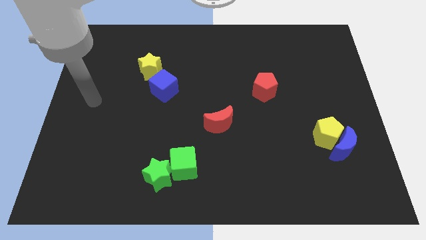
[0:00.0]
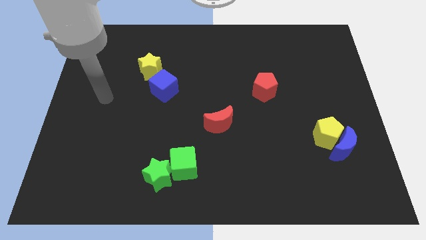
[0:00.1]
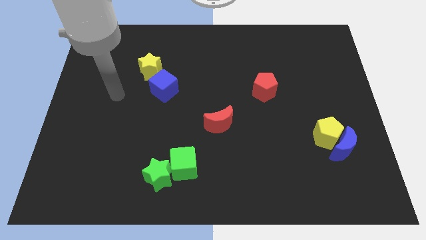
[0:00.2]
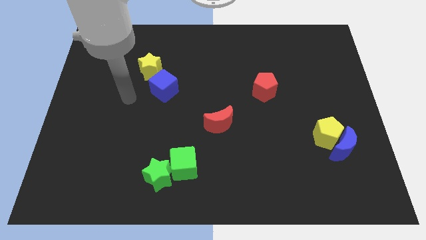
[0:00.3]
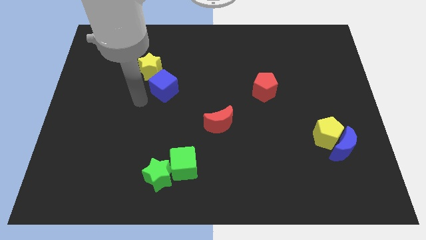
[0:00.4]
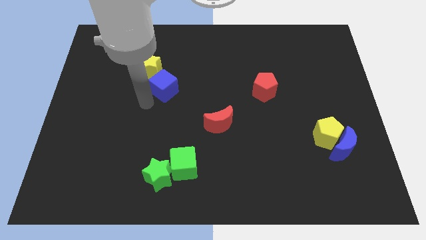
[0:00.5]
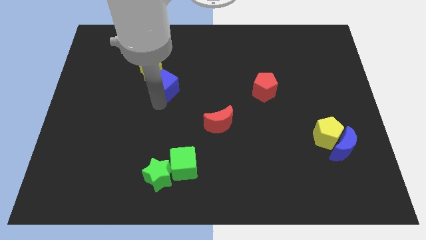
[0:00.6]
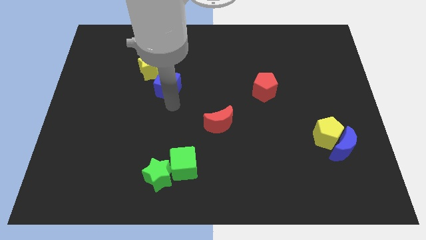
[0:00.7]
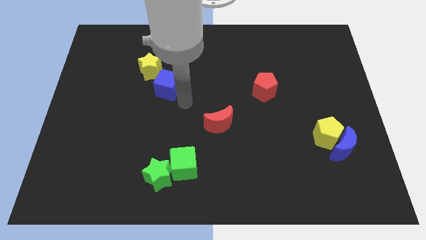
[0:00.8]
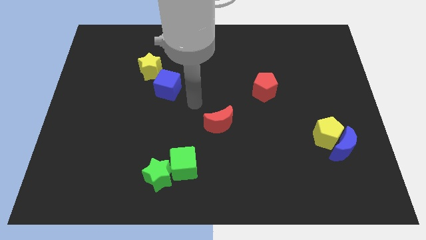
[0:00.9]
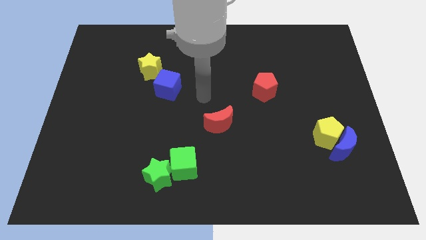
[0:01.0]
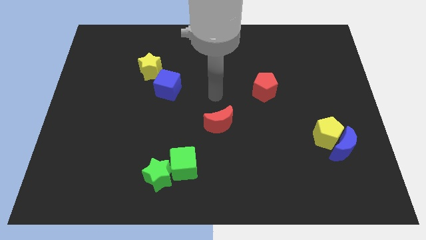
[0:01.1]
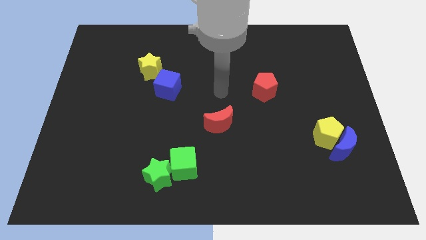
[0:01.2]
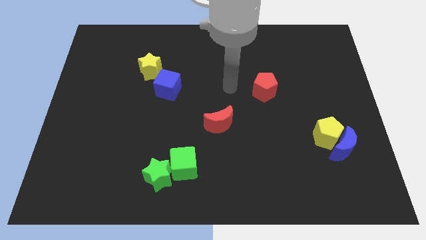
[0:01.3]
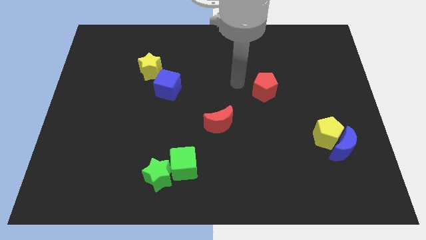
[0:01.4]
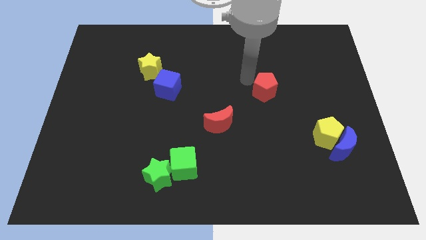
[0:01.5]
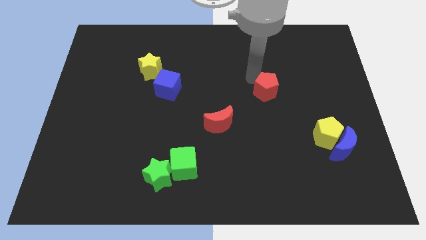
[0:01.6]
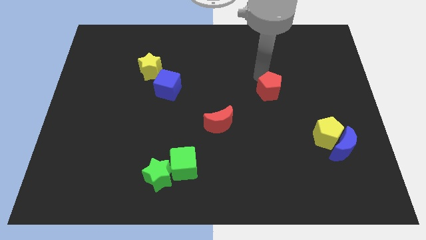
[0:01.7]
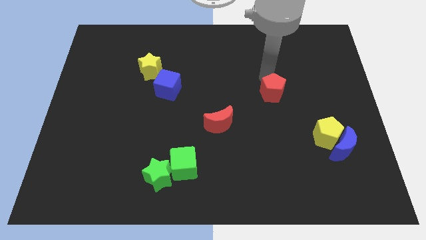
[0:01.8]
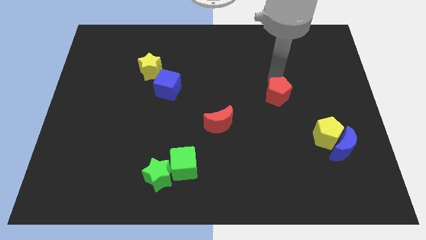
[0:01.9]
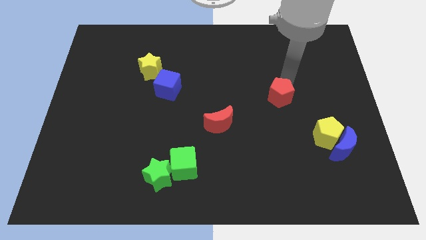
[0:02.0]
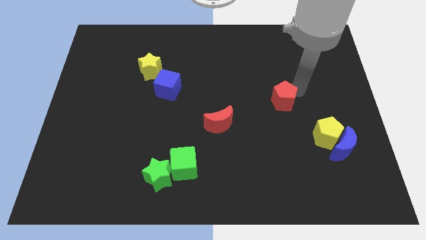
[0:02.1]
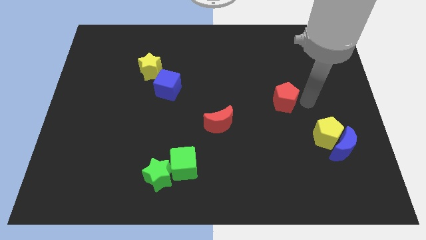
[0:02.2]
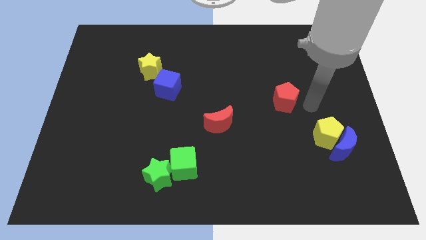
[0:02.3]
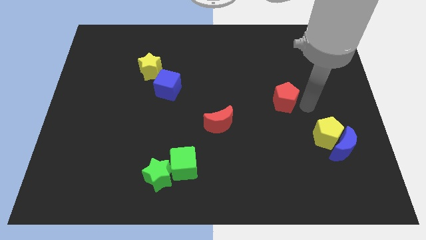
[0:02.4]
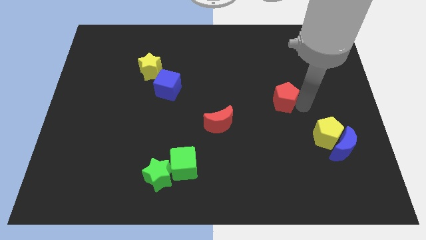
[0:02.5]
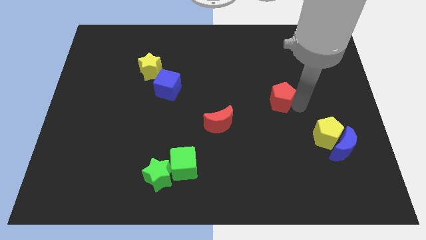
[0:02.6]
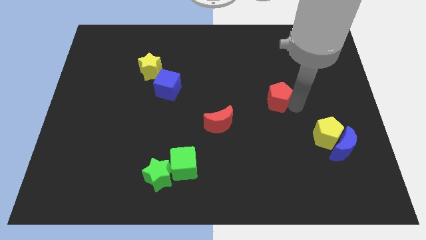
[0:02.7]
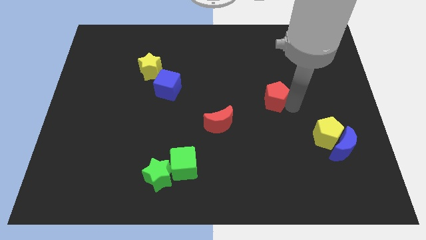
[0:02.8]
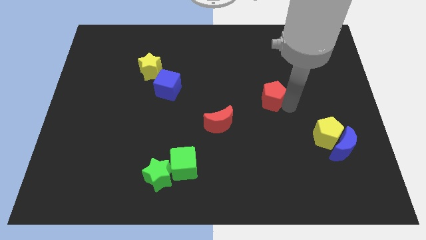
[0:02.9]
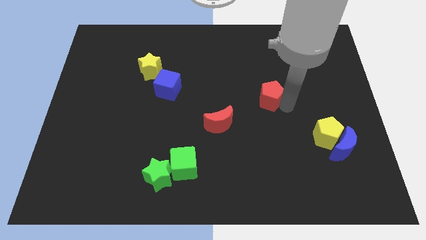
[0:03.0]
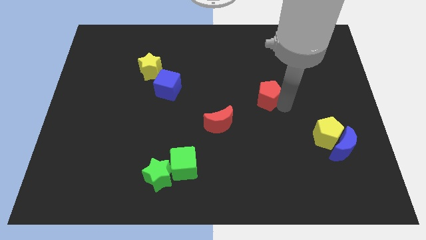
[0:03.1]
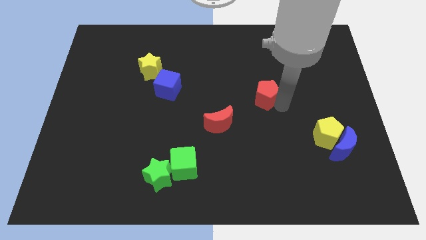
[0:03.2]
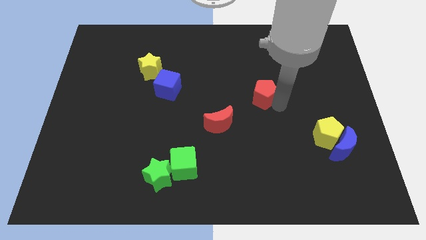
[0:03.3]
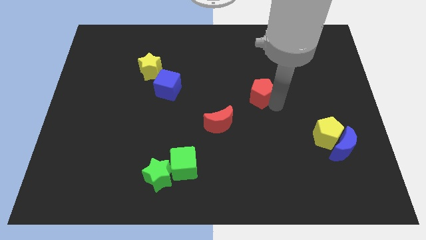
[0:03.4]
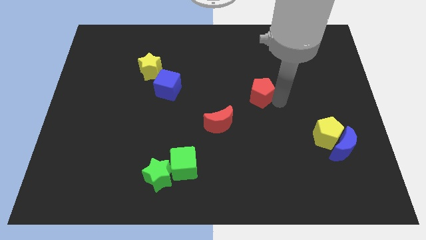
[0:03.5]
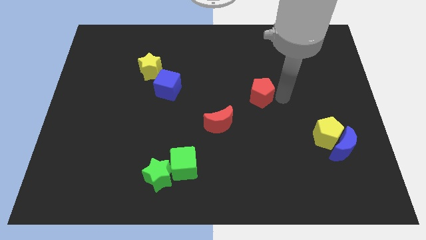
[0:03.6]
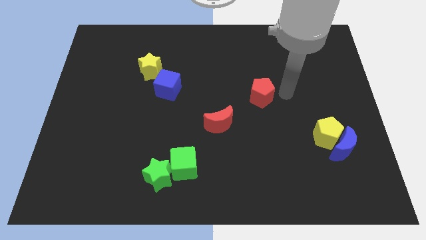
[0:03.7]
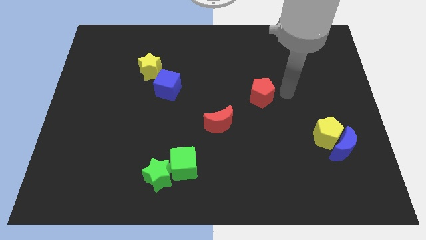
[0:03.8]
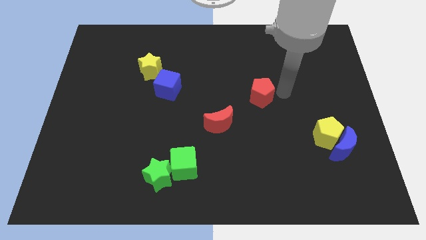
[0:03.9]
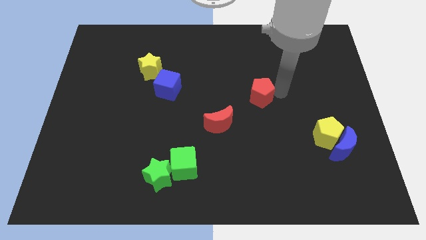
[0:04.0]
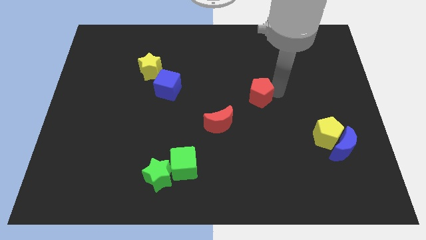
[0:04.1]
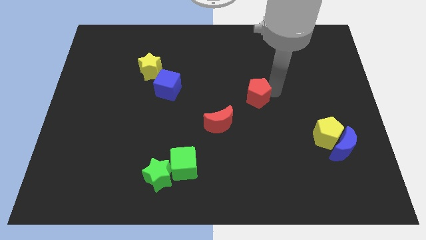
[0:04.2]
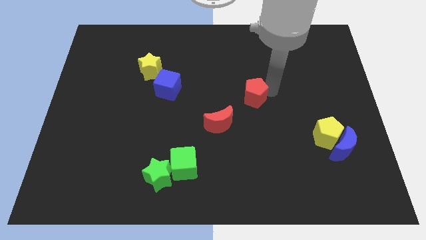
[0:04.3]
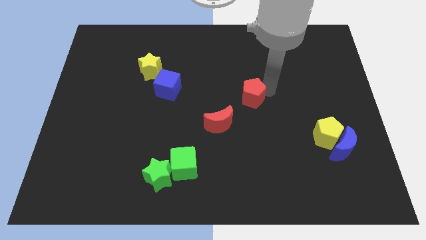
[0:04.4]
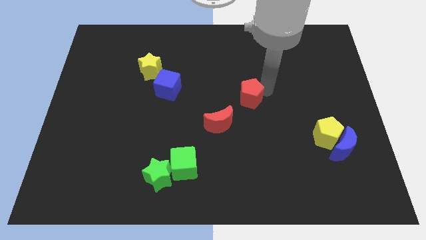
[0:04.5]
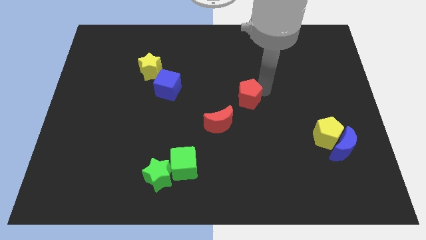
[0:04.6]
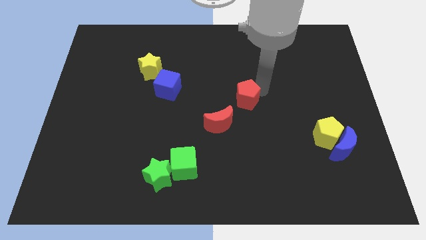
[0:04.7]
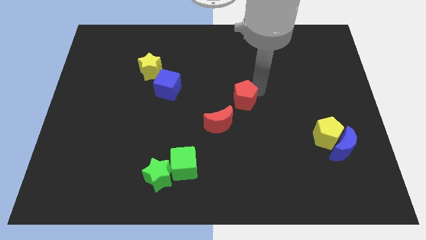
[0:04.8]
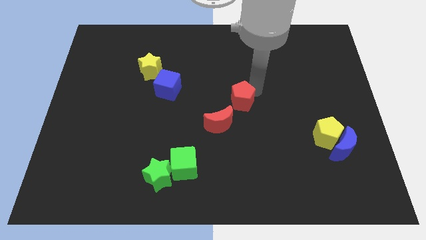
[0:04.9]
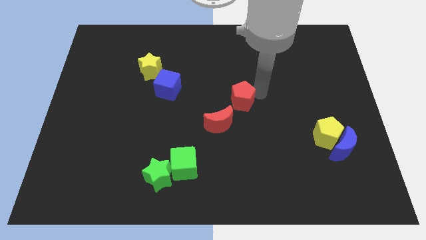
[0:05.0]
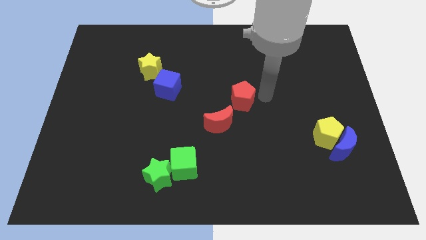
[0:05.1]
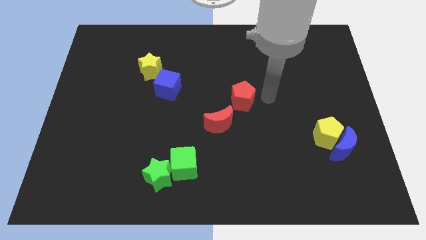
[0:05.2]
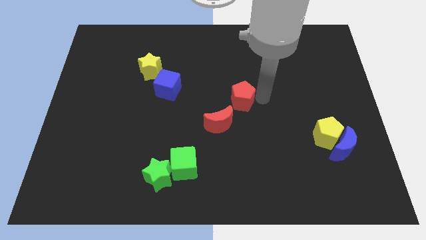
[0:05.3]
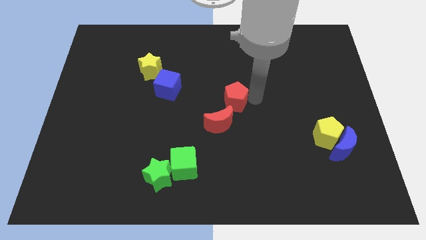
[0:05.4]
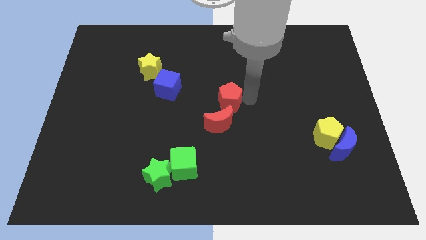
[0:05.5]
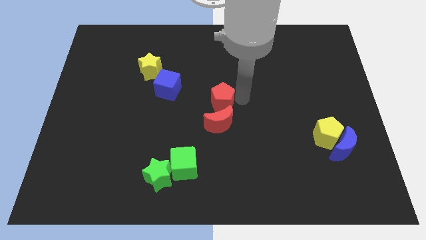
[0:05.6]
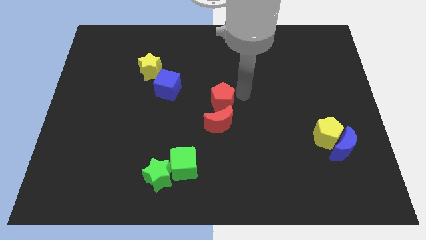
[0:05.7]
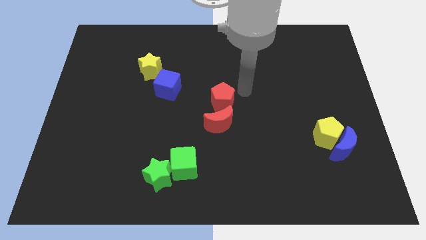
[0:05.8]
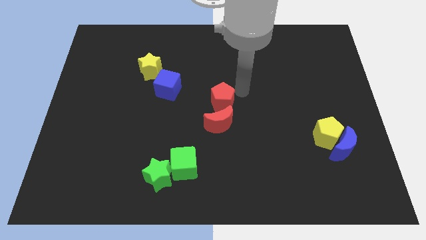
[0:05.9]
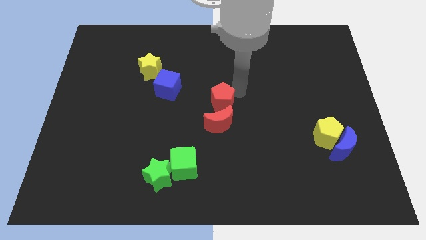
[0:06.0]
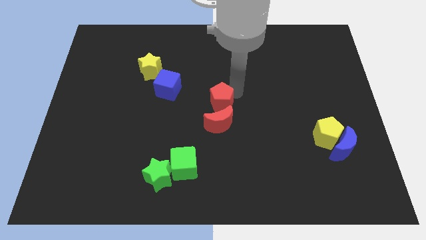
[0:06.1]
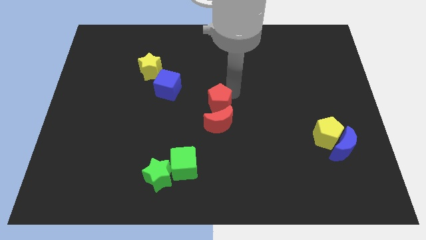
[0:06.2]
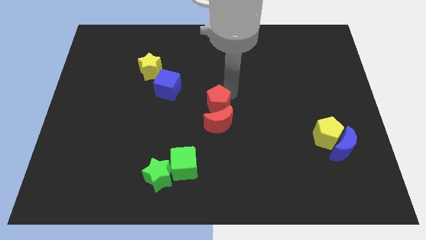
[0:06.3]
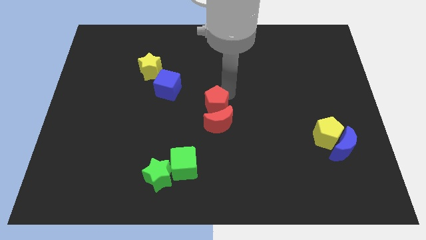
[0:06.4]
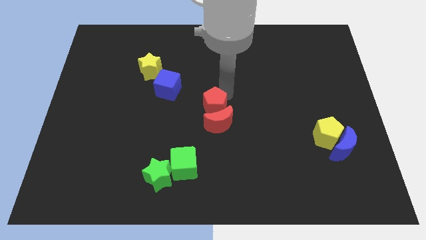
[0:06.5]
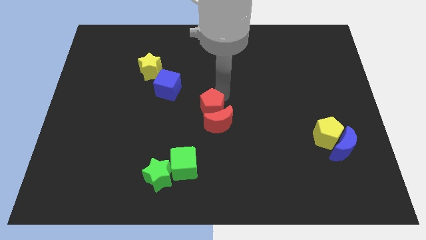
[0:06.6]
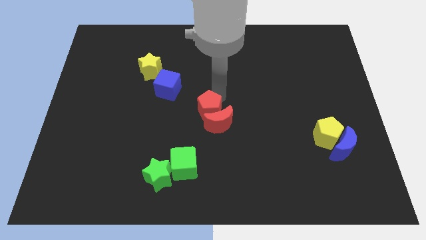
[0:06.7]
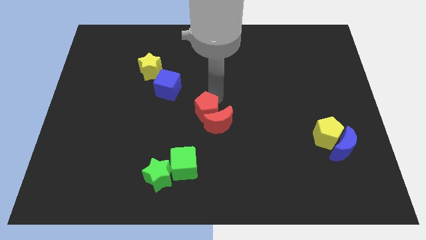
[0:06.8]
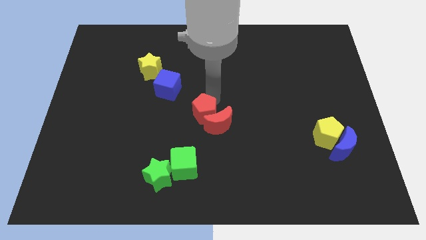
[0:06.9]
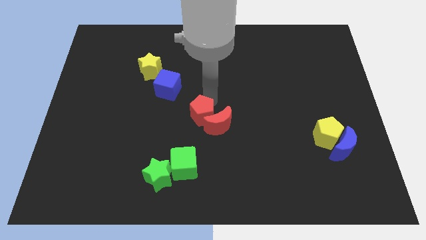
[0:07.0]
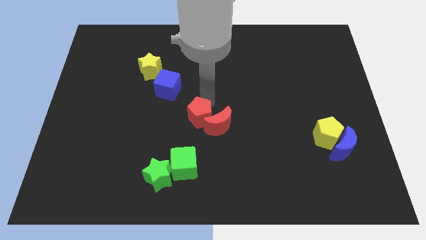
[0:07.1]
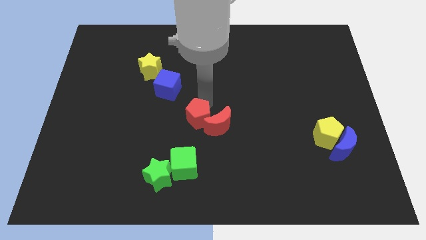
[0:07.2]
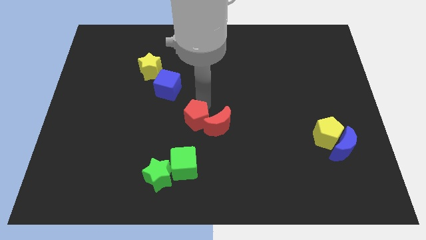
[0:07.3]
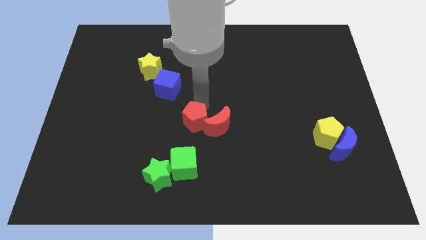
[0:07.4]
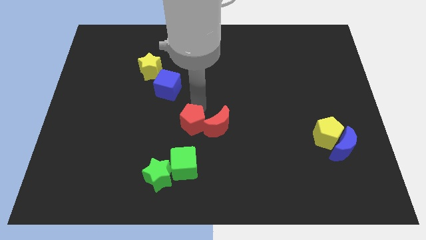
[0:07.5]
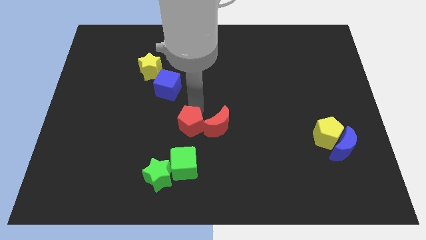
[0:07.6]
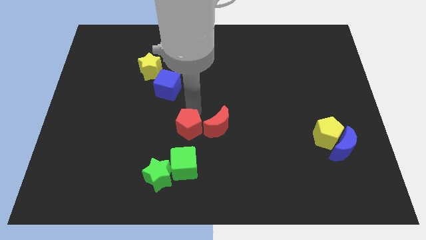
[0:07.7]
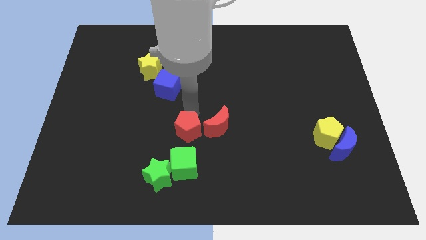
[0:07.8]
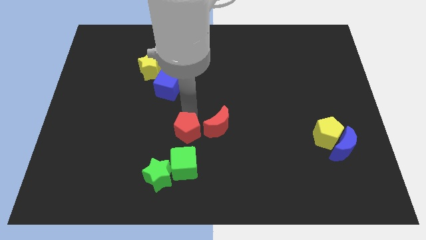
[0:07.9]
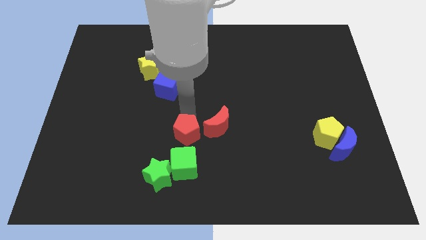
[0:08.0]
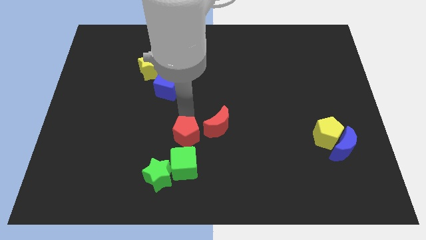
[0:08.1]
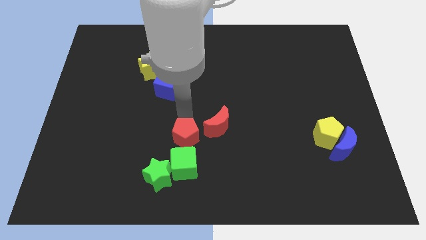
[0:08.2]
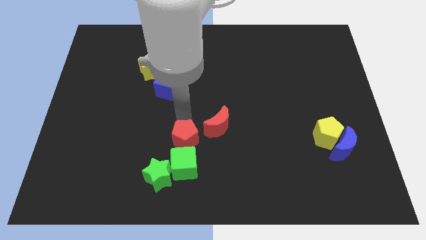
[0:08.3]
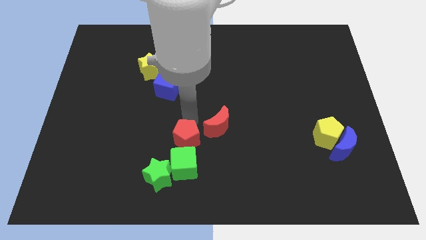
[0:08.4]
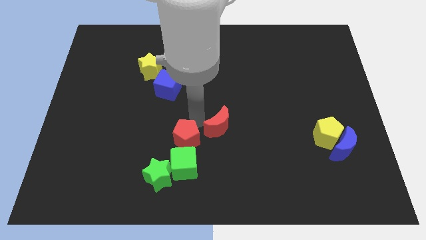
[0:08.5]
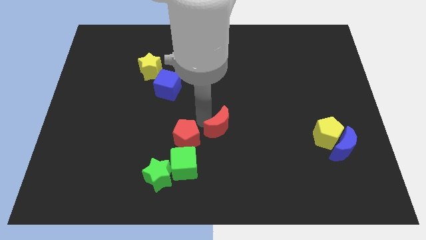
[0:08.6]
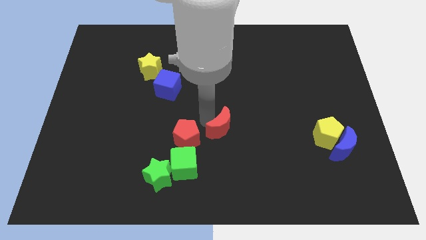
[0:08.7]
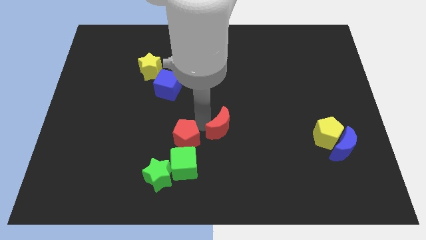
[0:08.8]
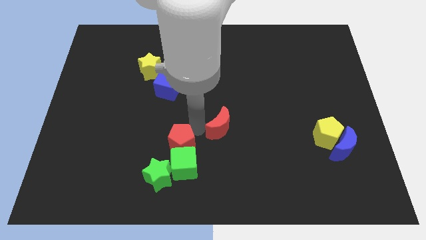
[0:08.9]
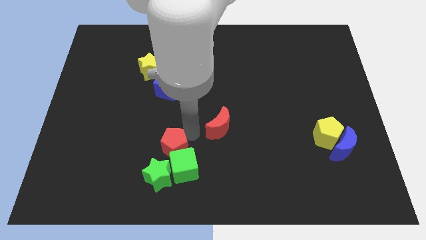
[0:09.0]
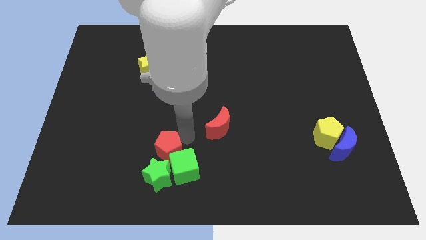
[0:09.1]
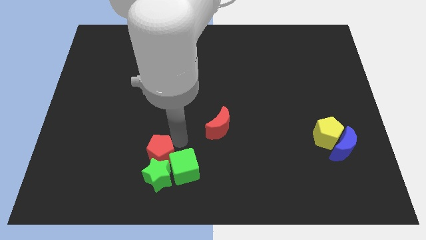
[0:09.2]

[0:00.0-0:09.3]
put the red pentagon towards the green star
